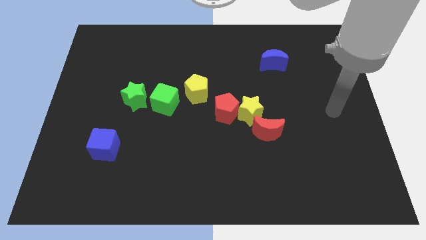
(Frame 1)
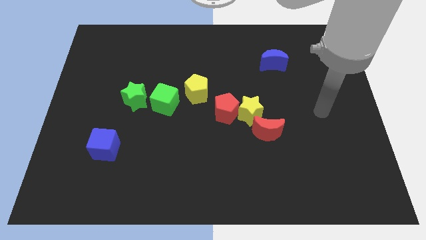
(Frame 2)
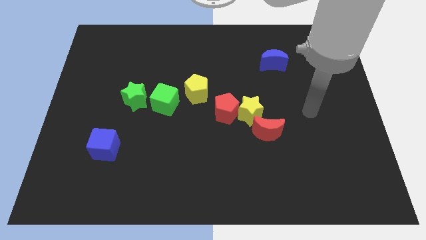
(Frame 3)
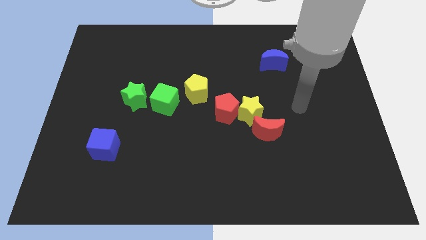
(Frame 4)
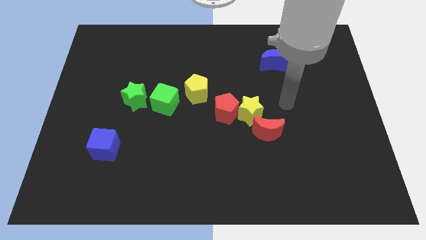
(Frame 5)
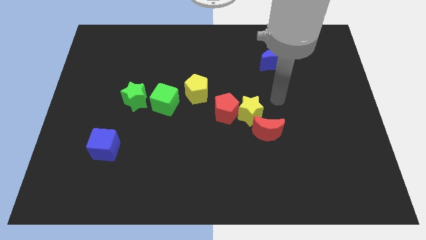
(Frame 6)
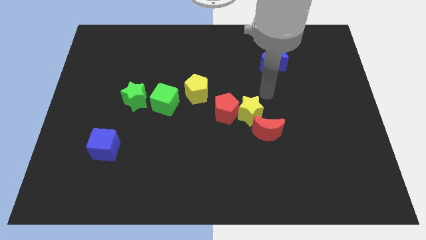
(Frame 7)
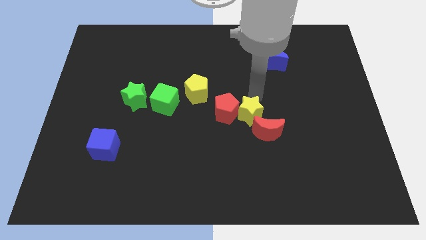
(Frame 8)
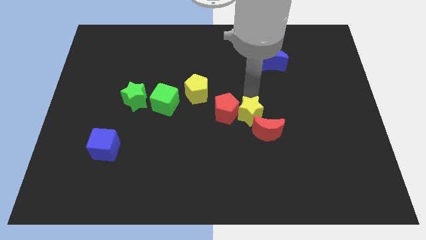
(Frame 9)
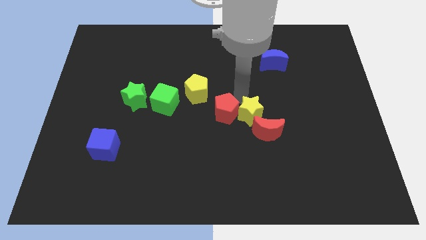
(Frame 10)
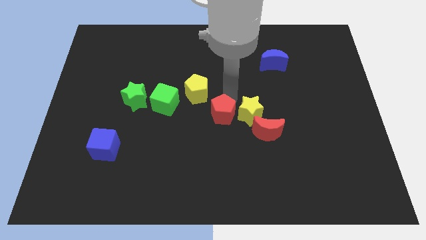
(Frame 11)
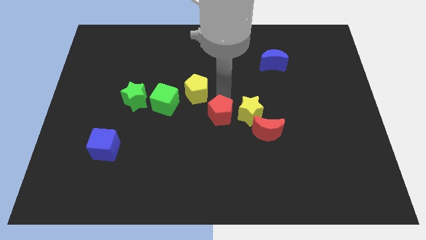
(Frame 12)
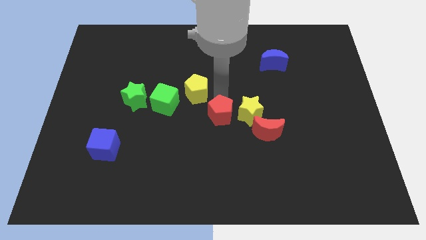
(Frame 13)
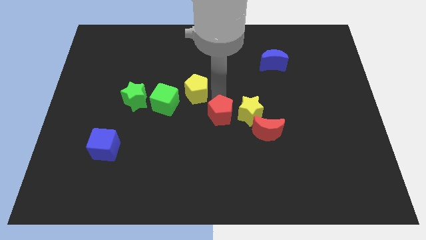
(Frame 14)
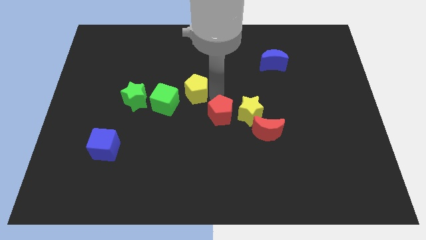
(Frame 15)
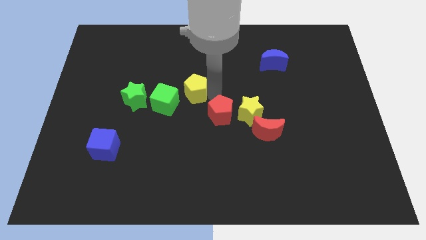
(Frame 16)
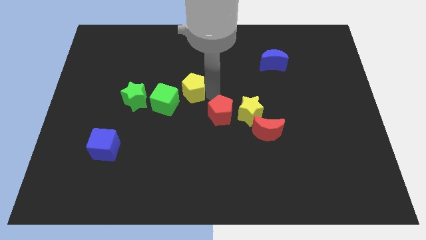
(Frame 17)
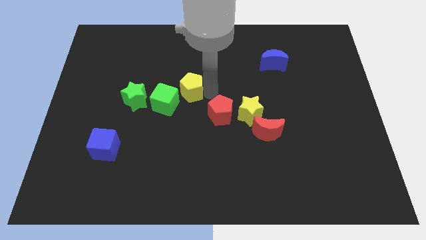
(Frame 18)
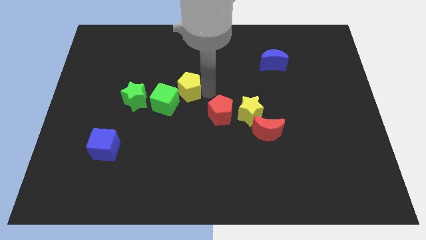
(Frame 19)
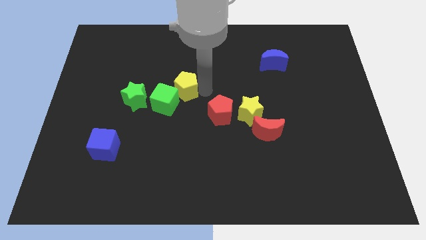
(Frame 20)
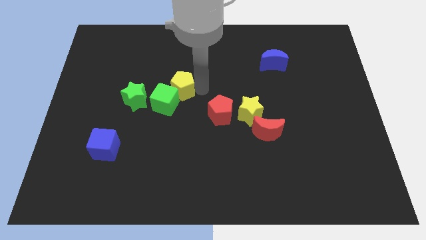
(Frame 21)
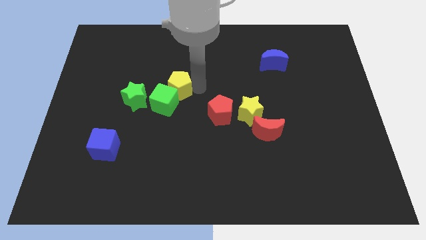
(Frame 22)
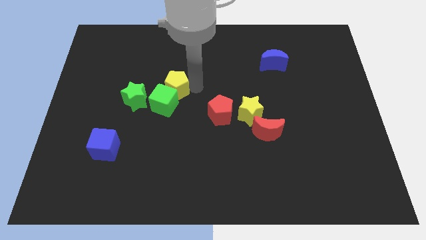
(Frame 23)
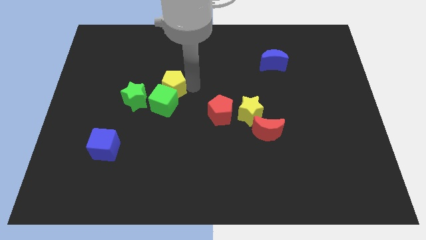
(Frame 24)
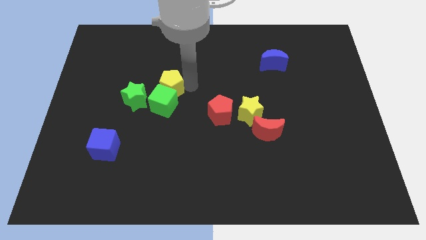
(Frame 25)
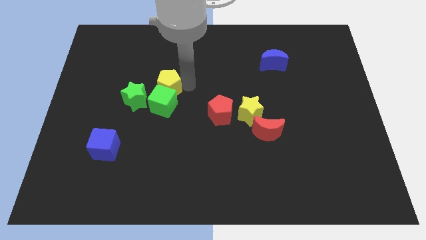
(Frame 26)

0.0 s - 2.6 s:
slightly slide the yellow pentagon left

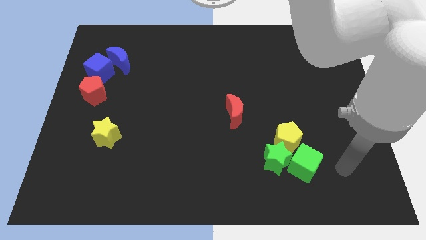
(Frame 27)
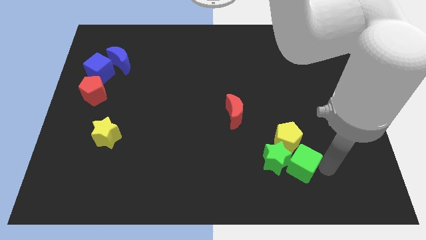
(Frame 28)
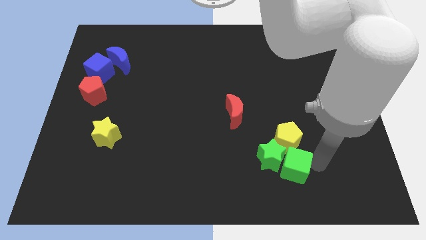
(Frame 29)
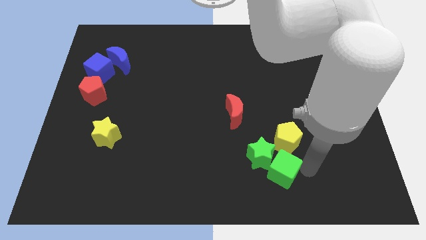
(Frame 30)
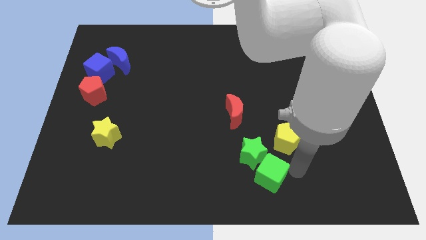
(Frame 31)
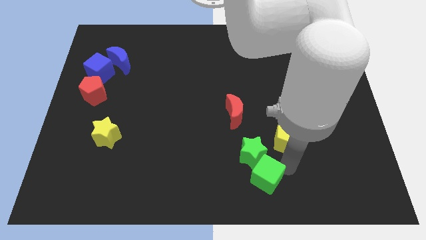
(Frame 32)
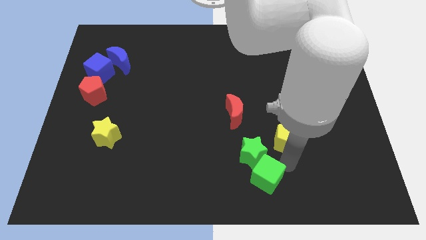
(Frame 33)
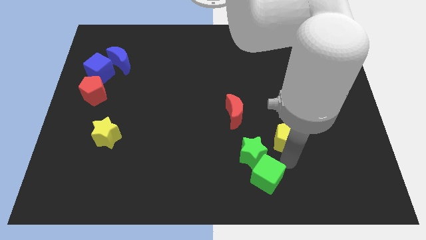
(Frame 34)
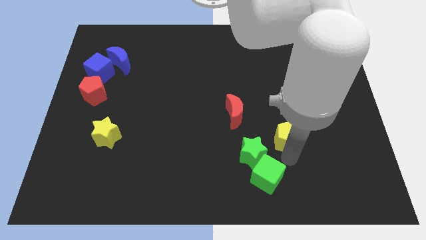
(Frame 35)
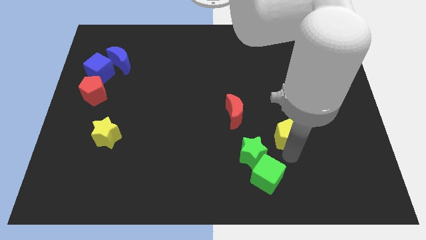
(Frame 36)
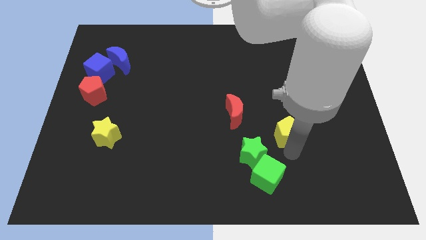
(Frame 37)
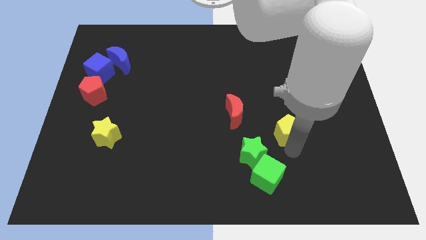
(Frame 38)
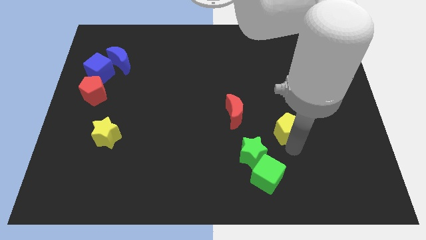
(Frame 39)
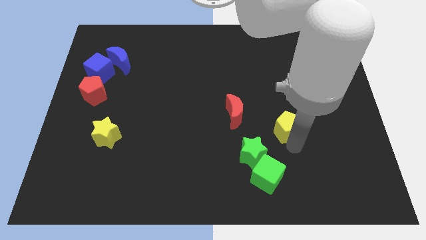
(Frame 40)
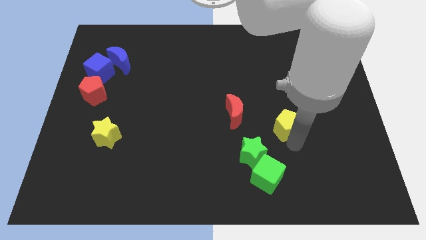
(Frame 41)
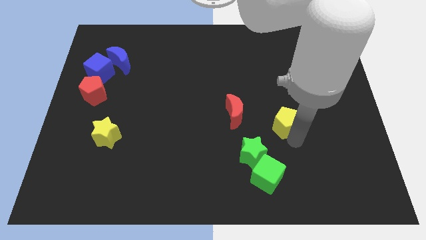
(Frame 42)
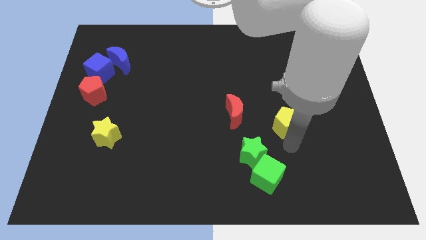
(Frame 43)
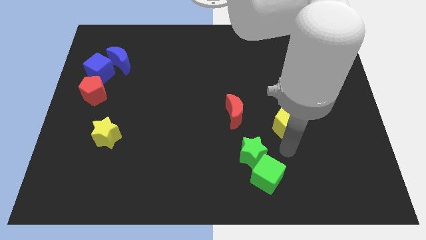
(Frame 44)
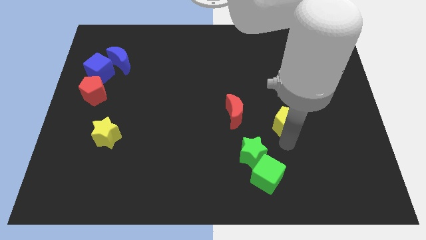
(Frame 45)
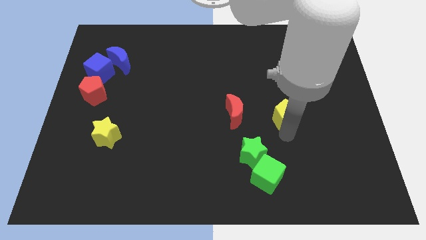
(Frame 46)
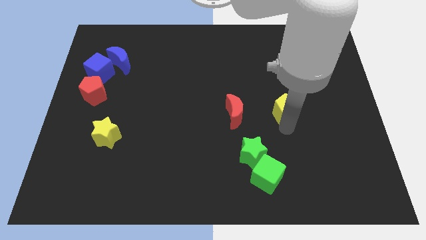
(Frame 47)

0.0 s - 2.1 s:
slightly push the yellow pentagon upwards

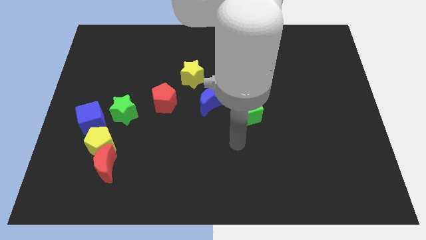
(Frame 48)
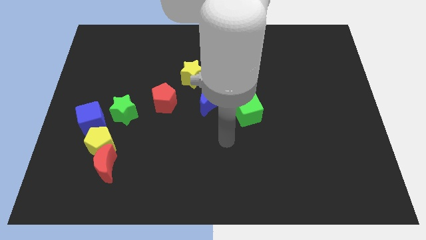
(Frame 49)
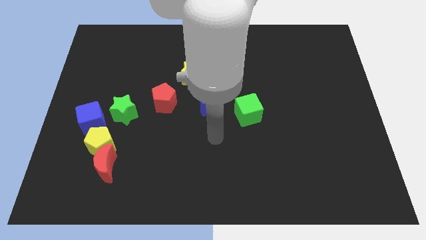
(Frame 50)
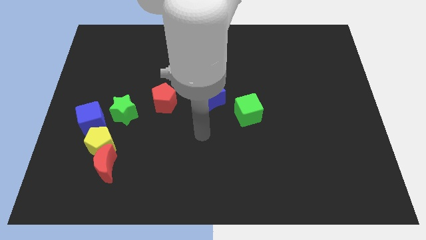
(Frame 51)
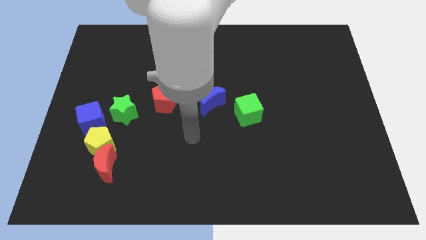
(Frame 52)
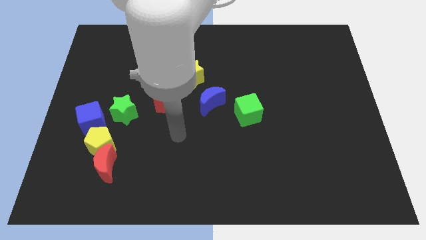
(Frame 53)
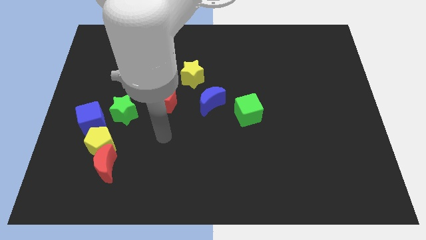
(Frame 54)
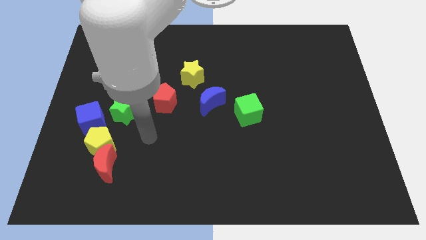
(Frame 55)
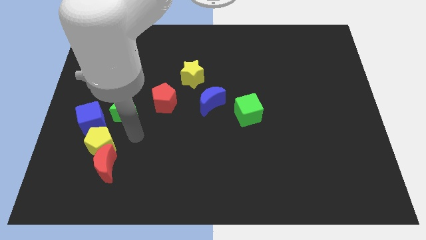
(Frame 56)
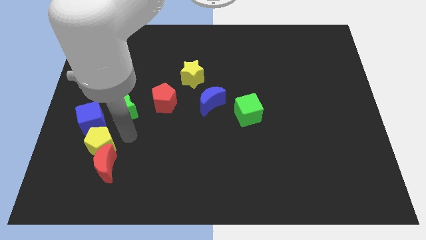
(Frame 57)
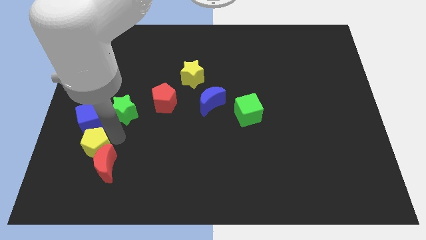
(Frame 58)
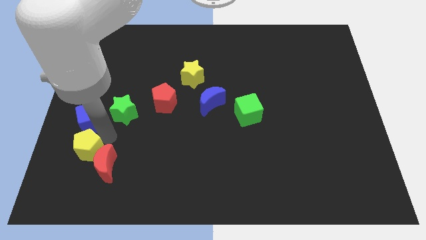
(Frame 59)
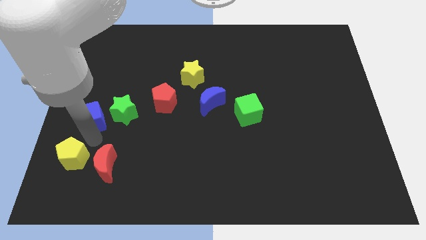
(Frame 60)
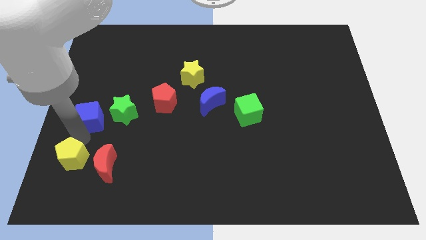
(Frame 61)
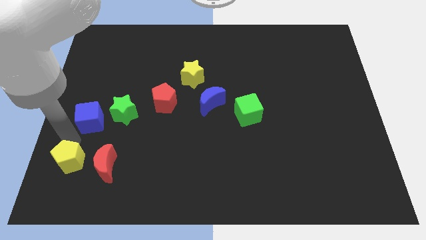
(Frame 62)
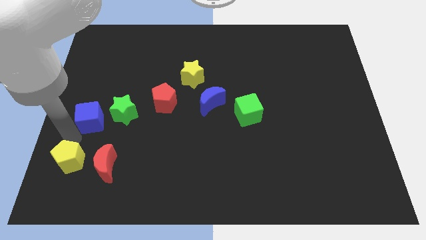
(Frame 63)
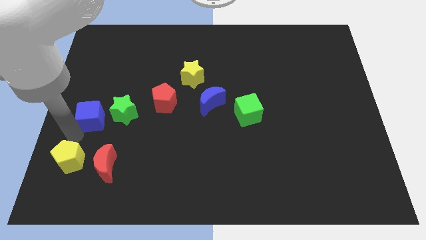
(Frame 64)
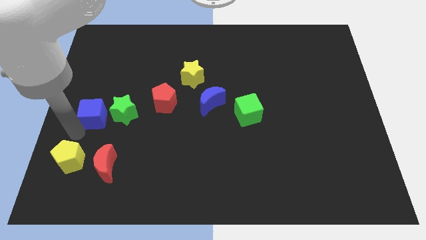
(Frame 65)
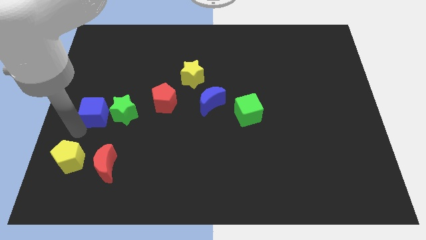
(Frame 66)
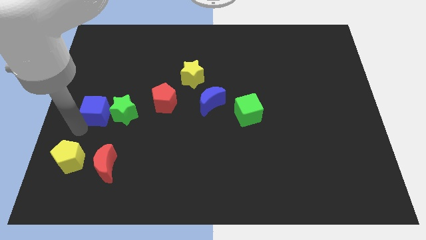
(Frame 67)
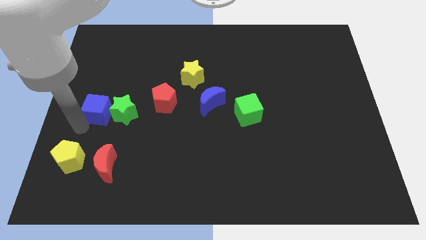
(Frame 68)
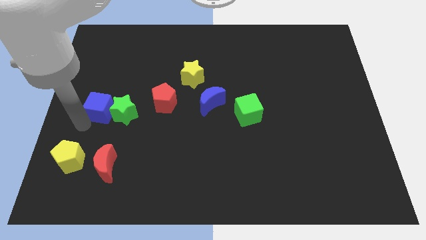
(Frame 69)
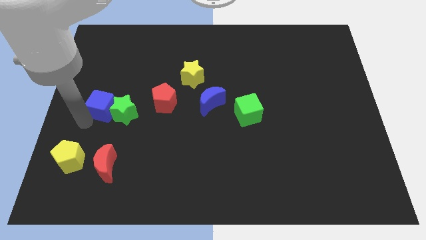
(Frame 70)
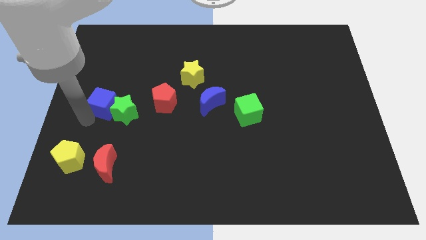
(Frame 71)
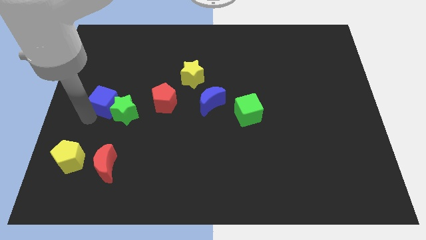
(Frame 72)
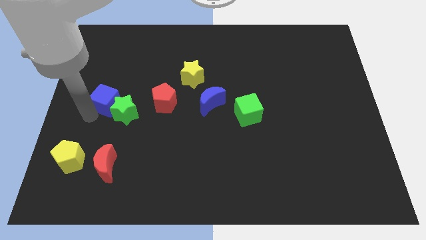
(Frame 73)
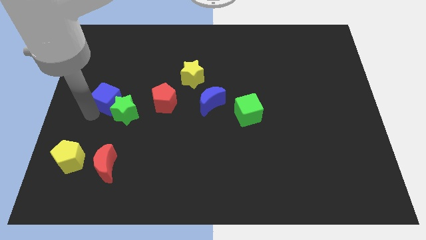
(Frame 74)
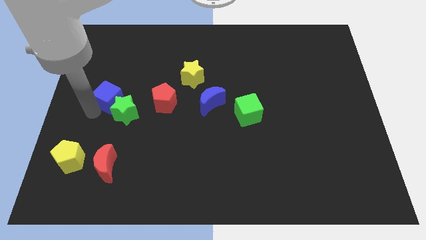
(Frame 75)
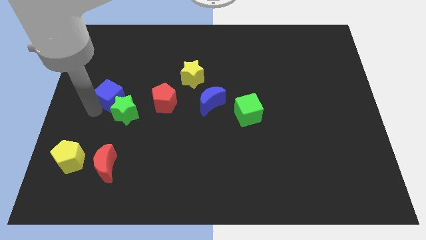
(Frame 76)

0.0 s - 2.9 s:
move the blue cube up and then to the right a little

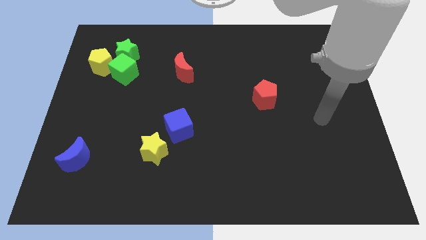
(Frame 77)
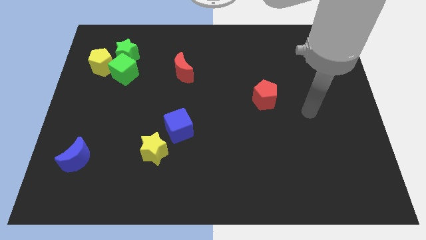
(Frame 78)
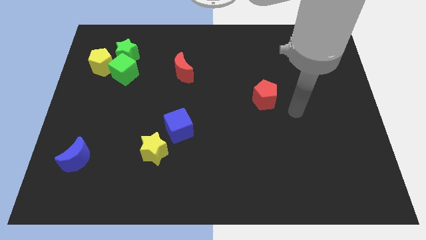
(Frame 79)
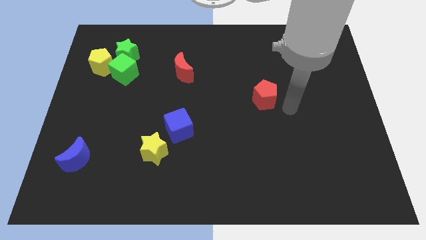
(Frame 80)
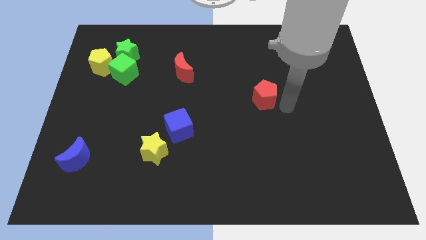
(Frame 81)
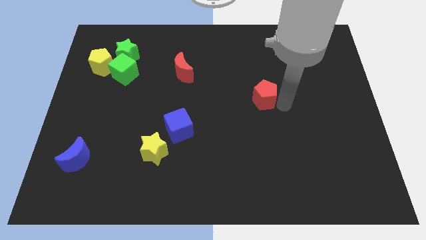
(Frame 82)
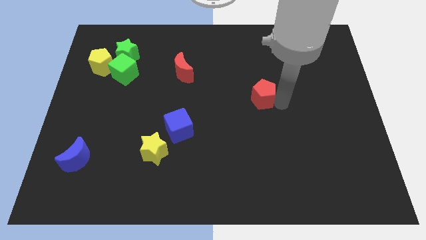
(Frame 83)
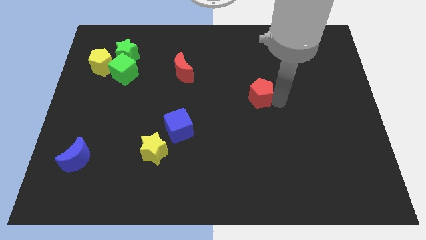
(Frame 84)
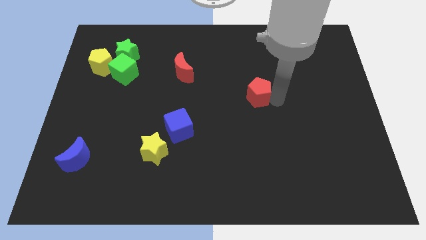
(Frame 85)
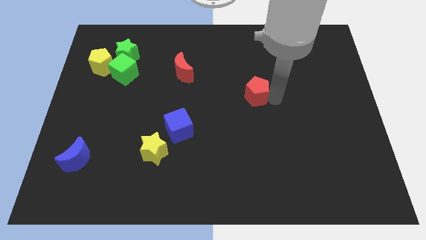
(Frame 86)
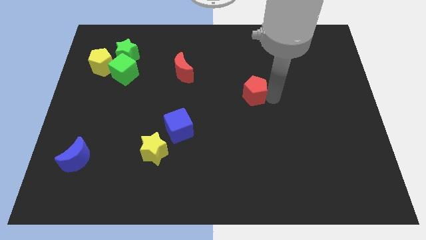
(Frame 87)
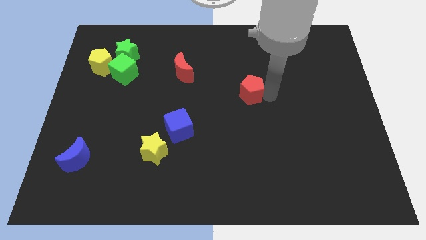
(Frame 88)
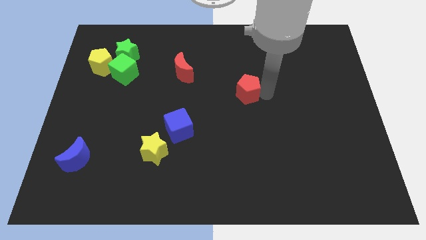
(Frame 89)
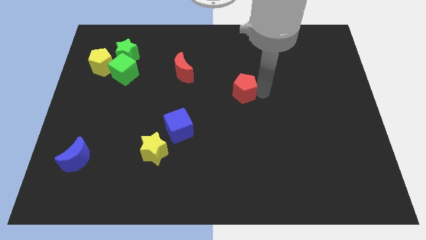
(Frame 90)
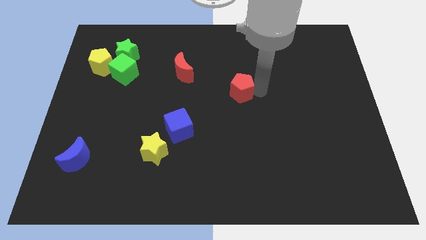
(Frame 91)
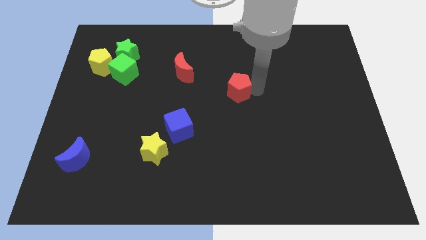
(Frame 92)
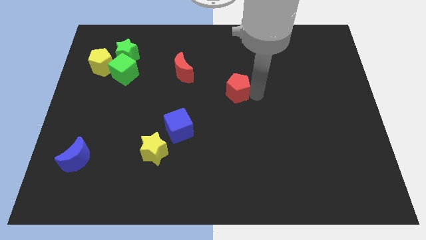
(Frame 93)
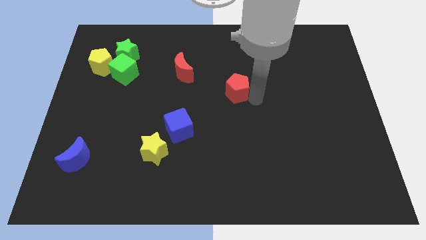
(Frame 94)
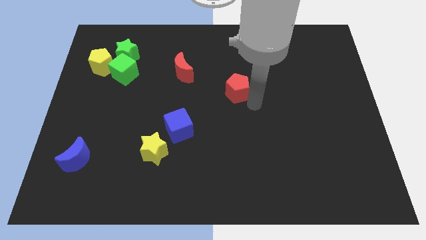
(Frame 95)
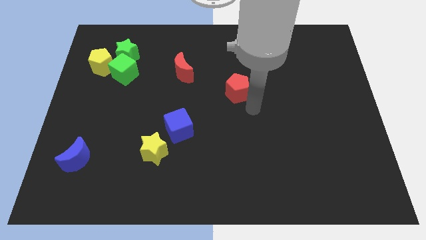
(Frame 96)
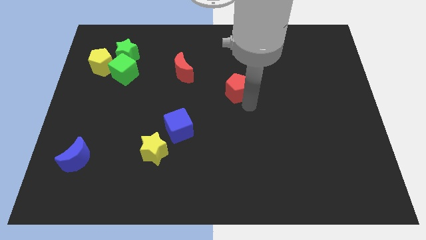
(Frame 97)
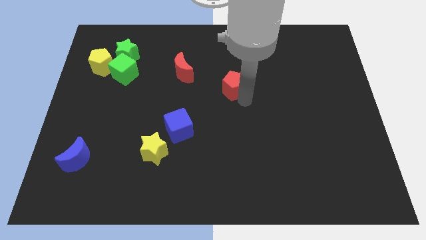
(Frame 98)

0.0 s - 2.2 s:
slightly move the red pentagon upwards and to the left diagonally
